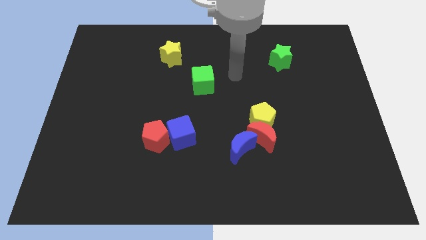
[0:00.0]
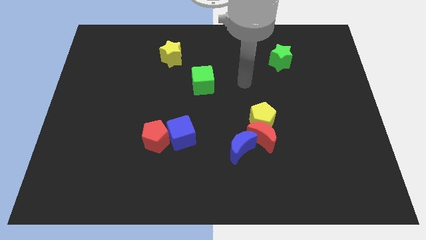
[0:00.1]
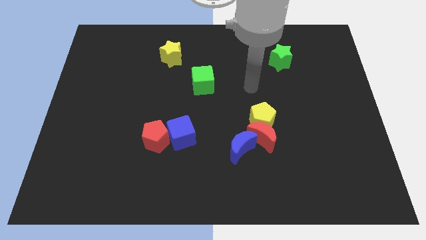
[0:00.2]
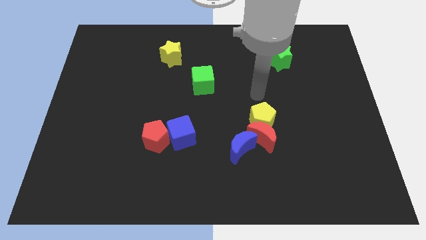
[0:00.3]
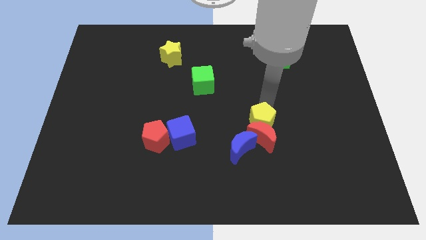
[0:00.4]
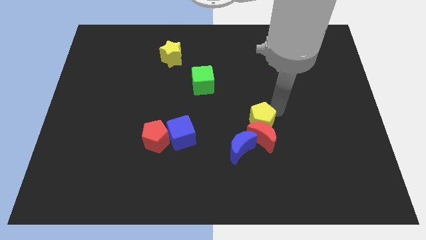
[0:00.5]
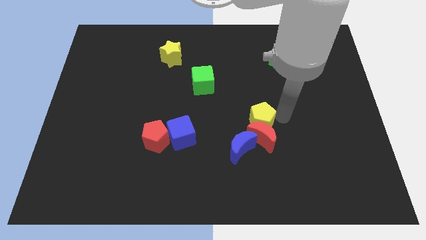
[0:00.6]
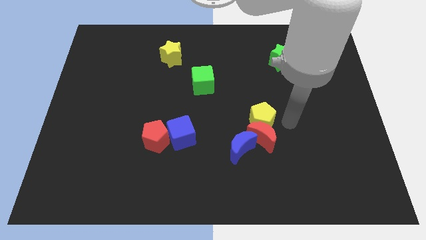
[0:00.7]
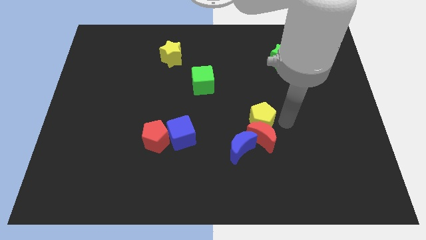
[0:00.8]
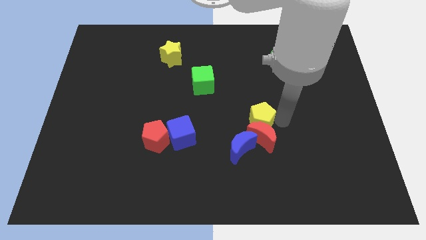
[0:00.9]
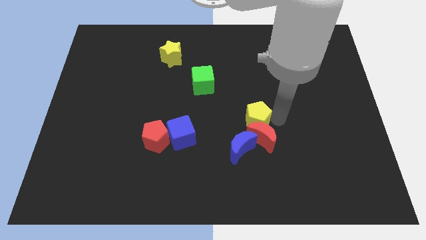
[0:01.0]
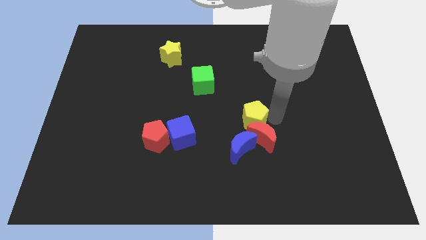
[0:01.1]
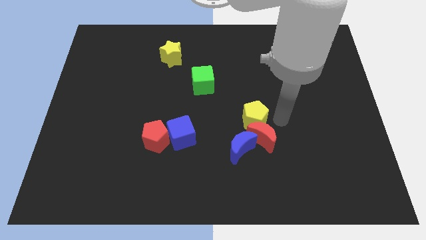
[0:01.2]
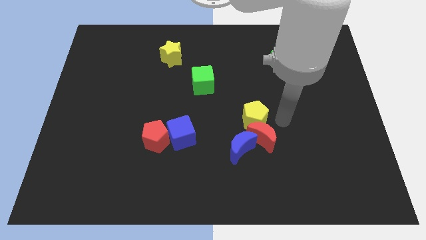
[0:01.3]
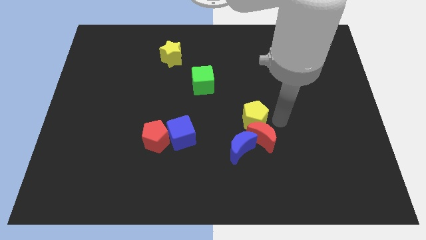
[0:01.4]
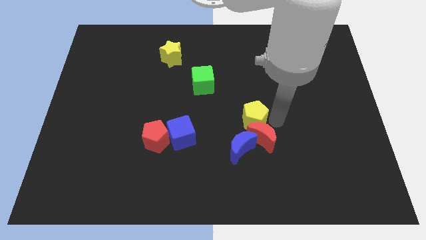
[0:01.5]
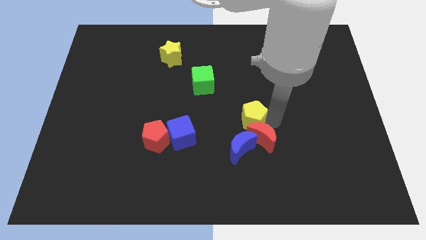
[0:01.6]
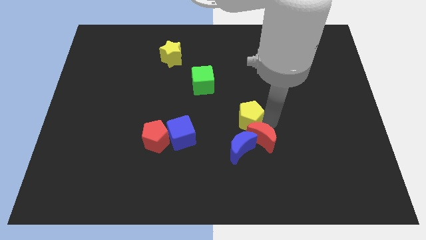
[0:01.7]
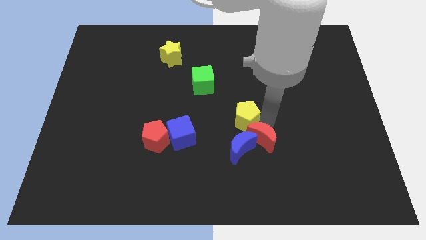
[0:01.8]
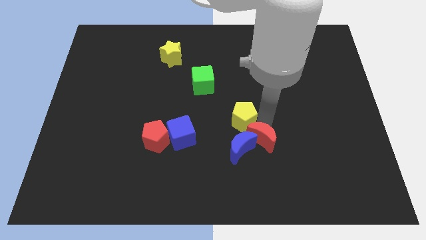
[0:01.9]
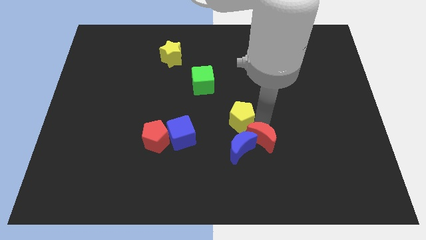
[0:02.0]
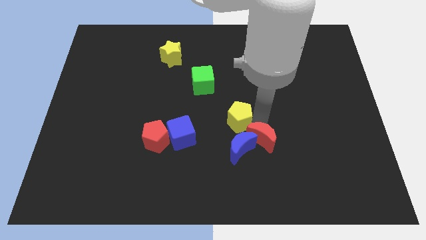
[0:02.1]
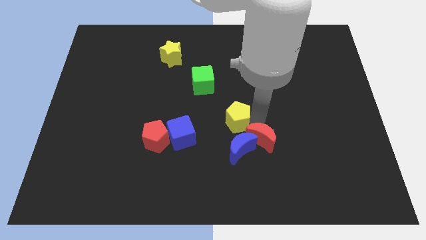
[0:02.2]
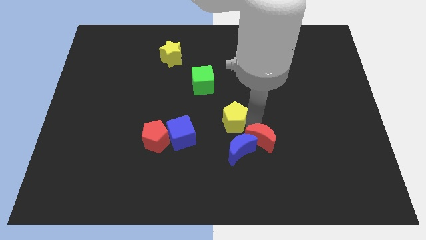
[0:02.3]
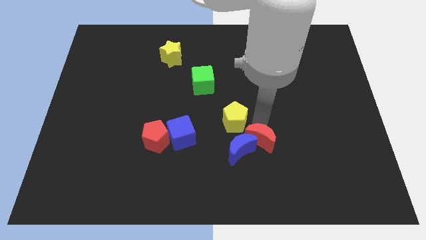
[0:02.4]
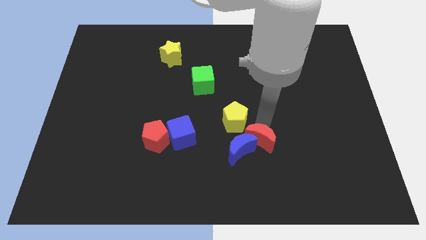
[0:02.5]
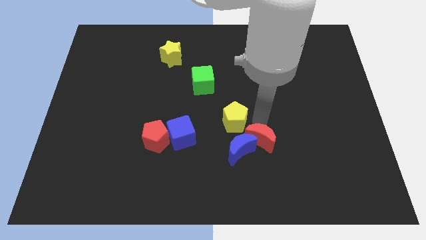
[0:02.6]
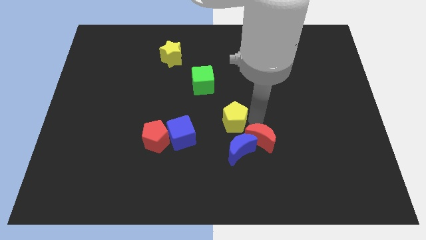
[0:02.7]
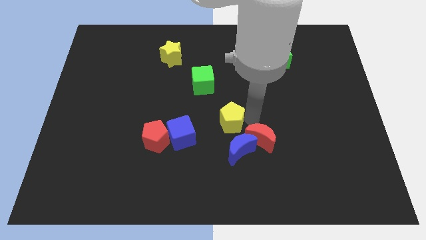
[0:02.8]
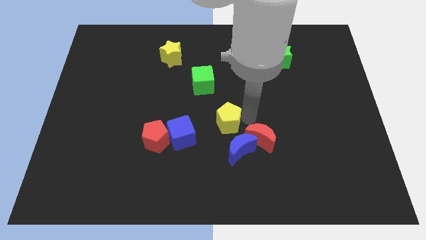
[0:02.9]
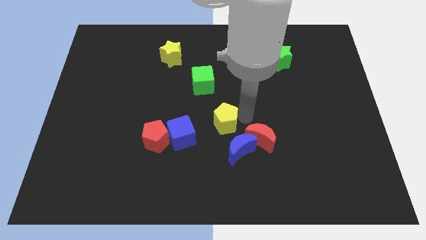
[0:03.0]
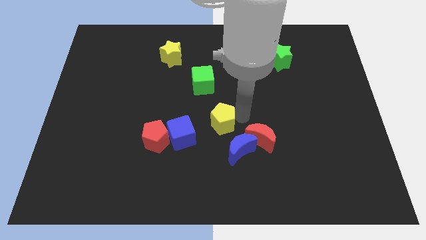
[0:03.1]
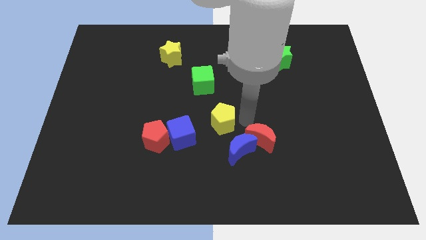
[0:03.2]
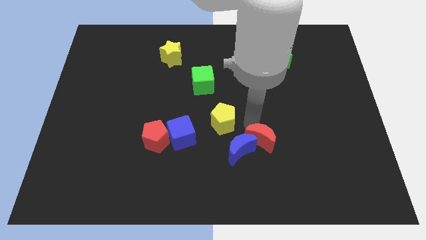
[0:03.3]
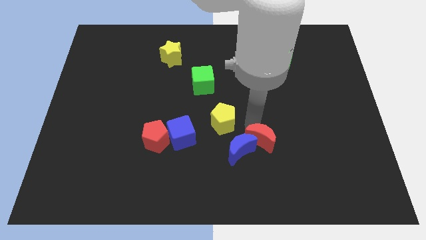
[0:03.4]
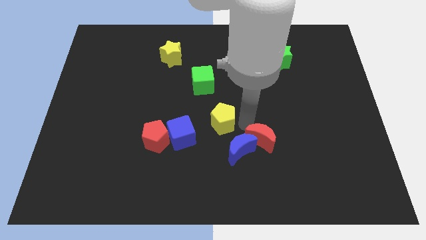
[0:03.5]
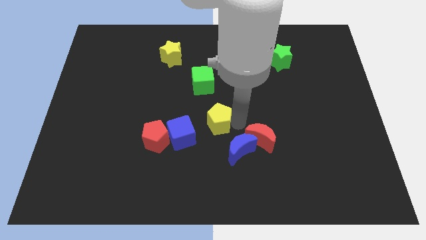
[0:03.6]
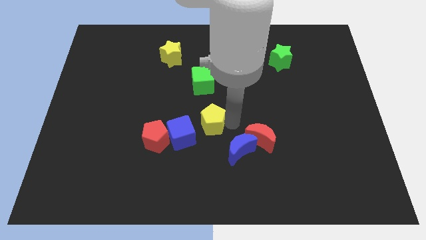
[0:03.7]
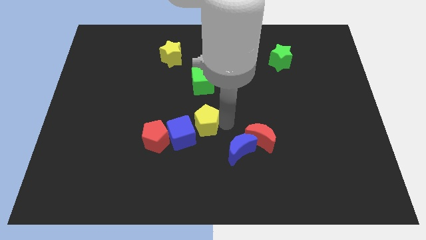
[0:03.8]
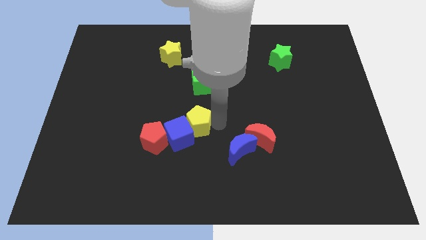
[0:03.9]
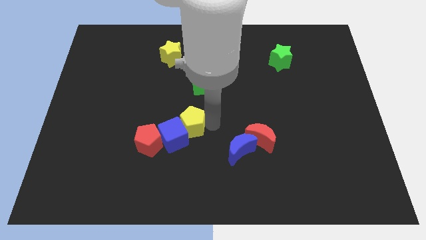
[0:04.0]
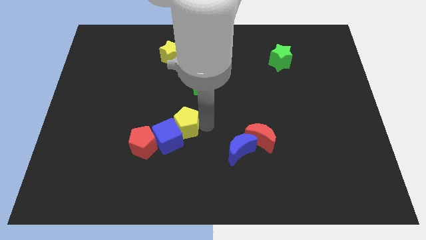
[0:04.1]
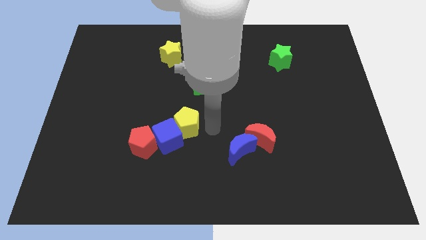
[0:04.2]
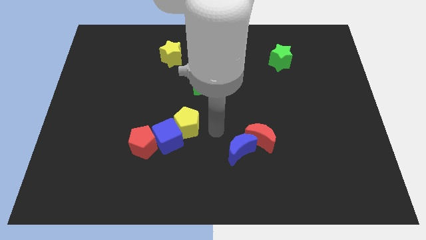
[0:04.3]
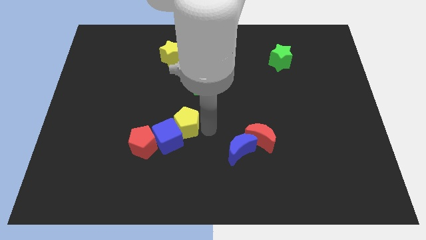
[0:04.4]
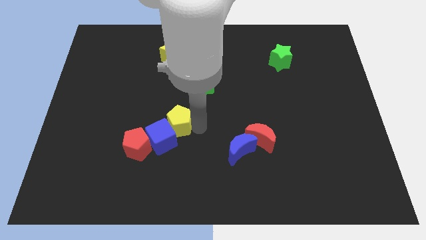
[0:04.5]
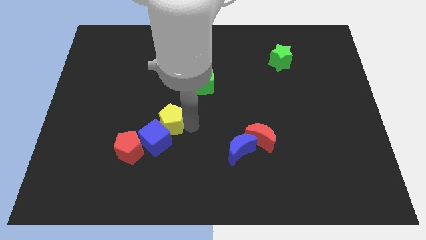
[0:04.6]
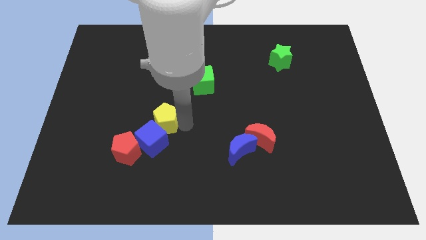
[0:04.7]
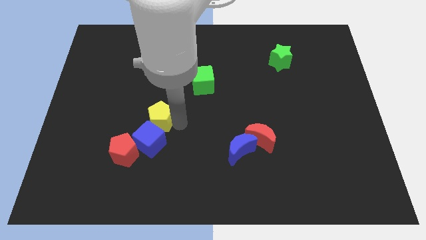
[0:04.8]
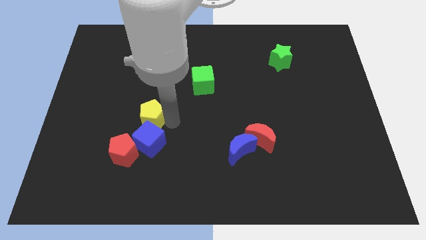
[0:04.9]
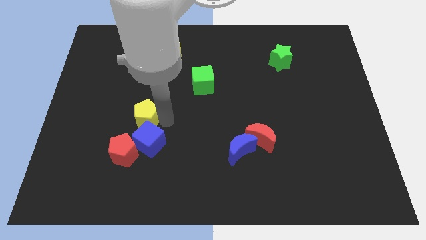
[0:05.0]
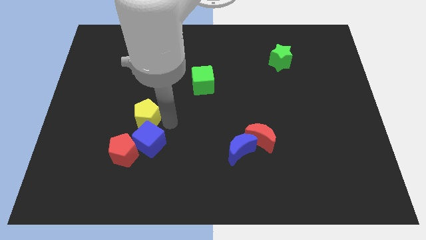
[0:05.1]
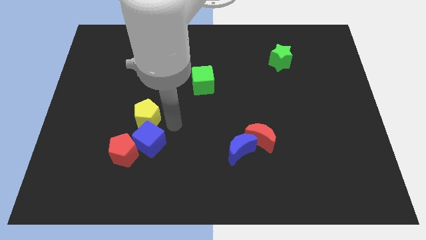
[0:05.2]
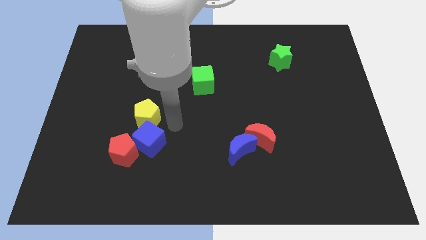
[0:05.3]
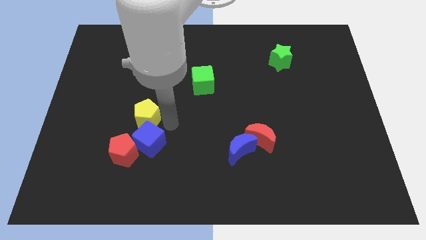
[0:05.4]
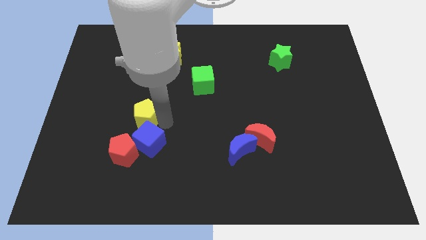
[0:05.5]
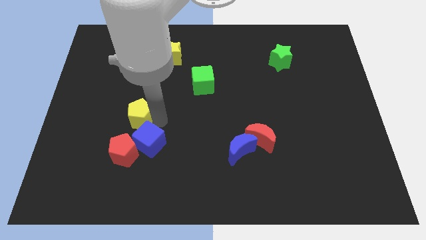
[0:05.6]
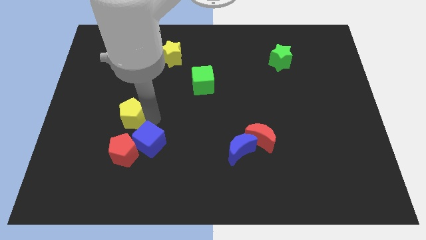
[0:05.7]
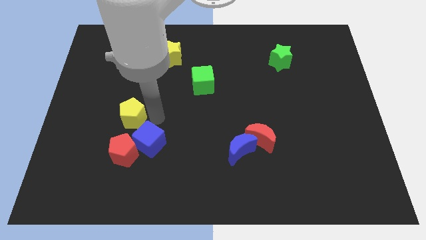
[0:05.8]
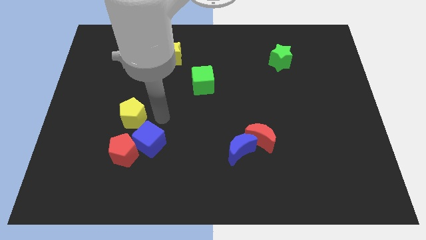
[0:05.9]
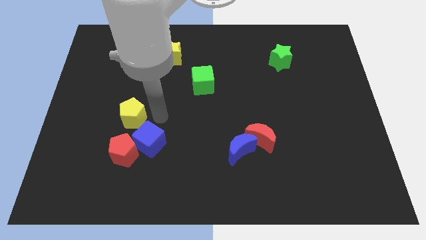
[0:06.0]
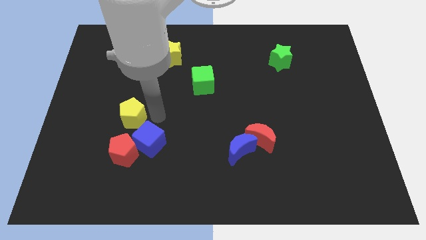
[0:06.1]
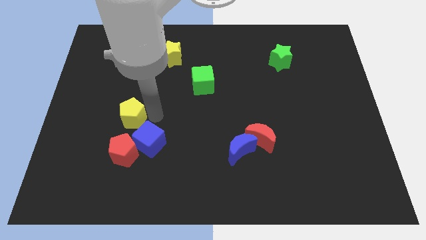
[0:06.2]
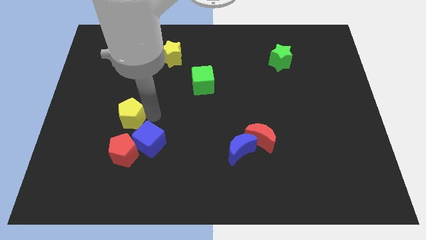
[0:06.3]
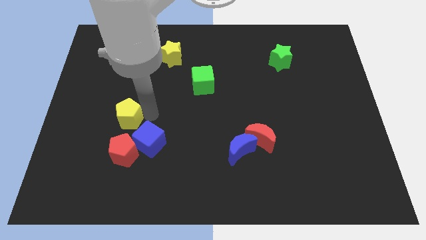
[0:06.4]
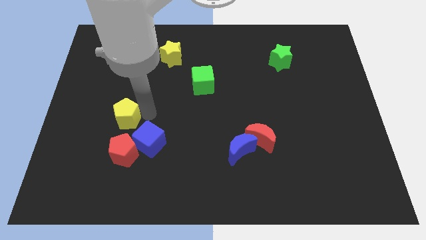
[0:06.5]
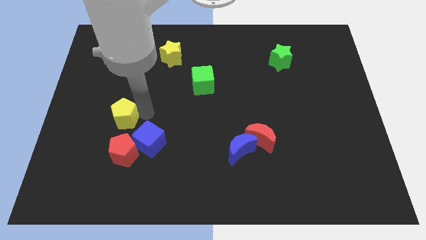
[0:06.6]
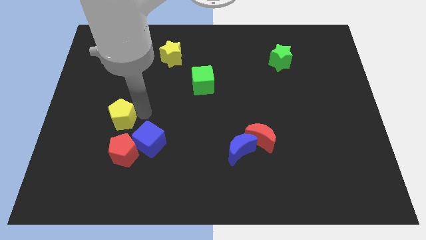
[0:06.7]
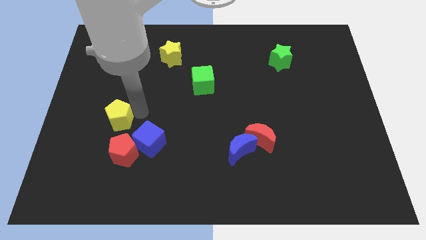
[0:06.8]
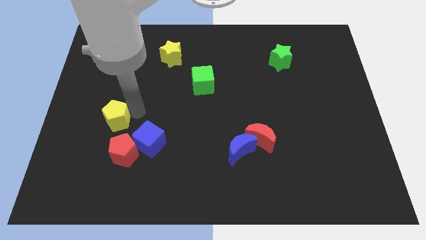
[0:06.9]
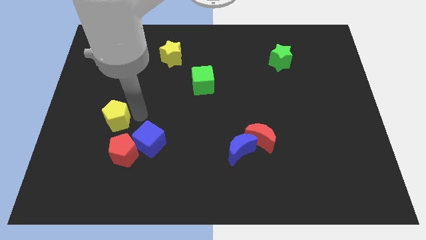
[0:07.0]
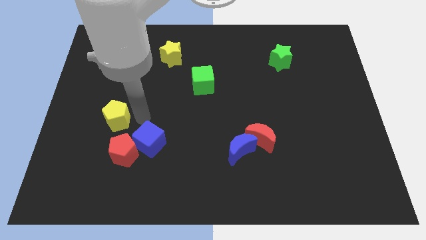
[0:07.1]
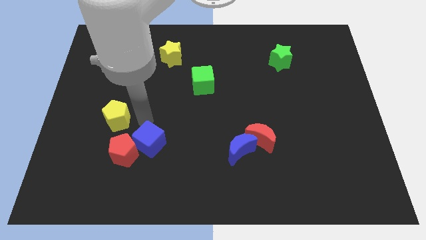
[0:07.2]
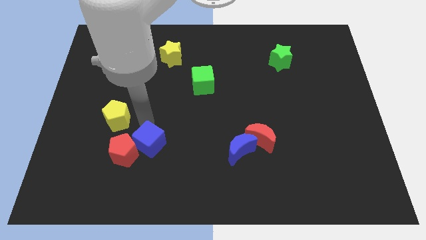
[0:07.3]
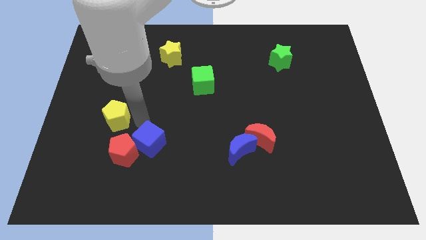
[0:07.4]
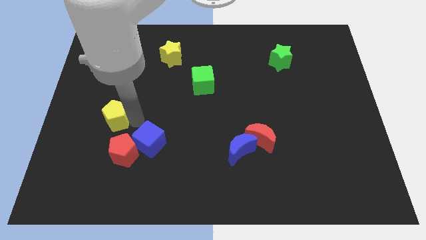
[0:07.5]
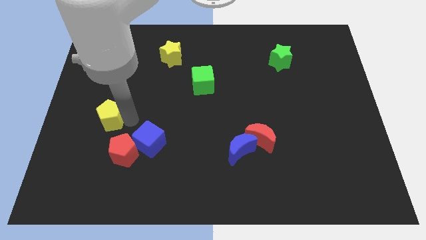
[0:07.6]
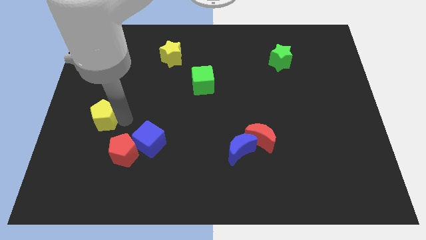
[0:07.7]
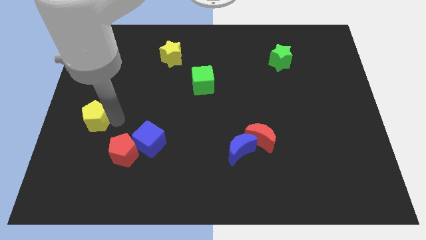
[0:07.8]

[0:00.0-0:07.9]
move the yellow pentagon to the left side
